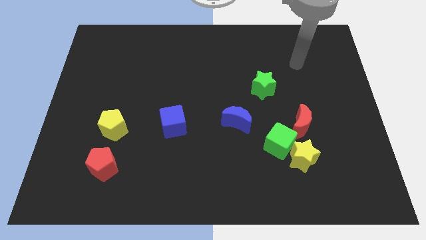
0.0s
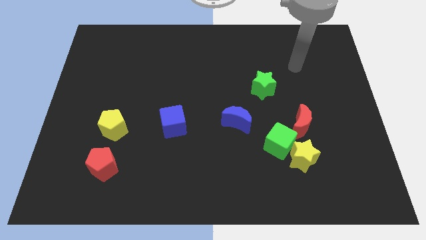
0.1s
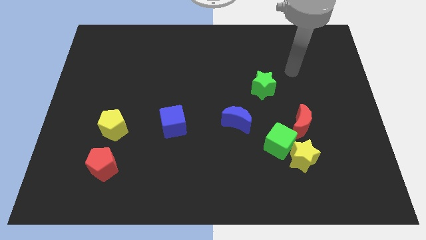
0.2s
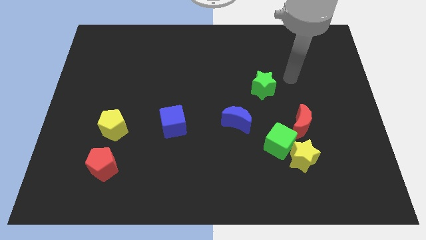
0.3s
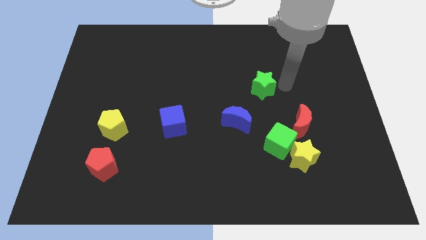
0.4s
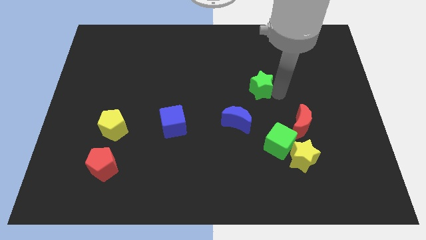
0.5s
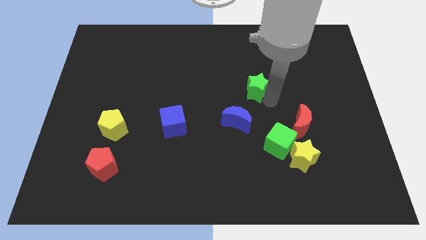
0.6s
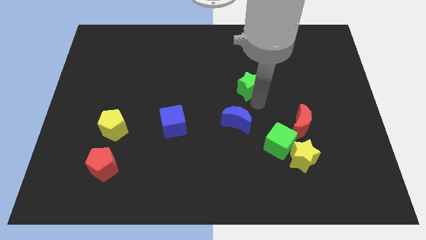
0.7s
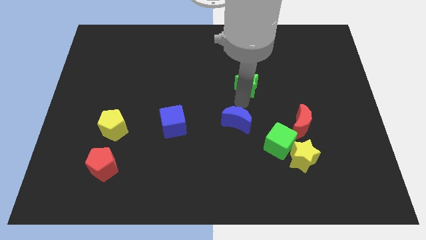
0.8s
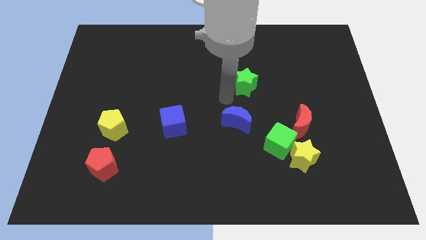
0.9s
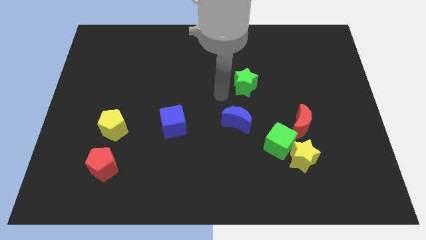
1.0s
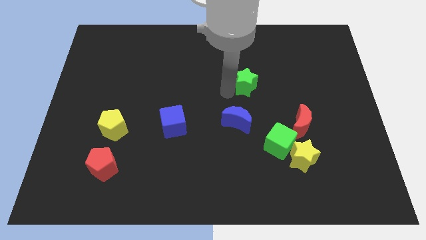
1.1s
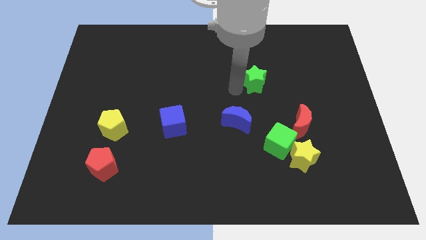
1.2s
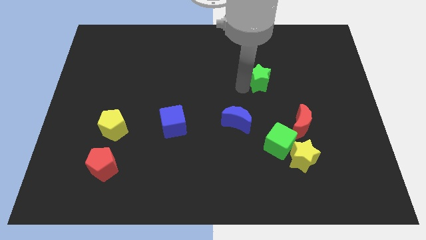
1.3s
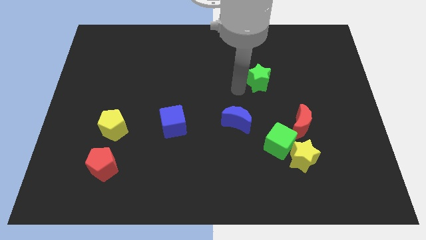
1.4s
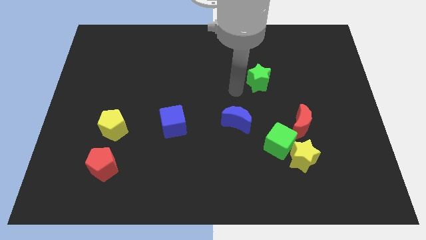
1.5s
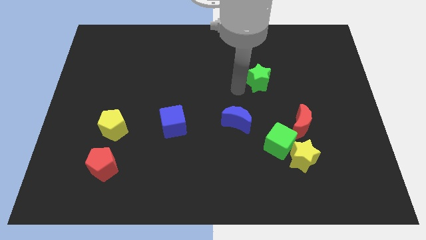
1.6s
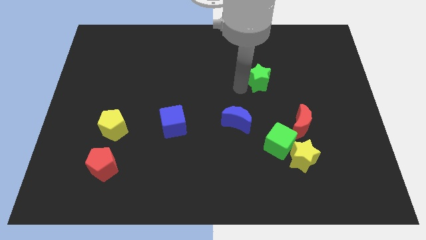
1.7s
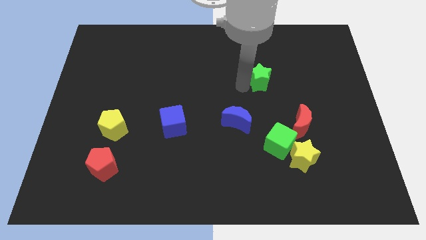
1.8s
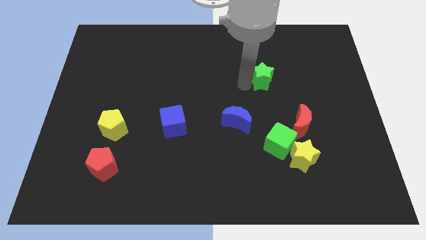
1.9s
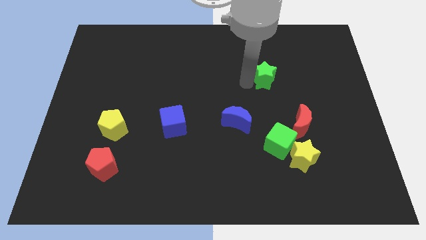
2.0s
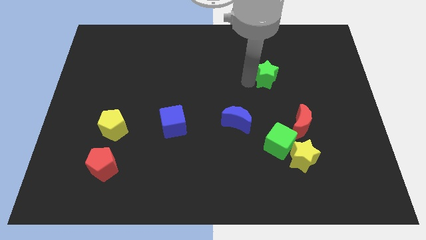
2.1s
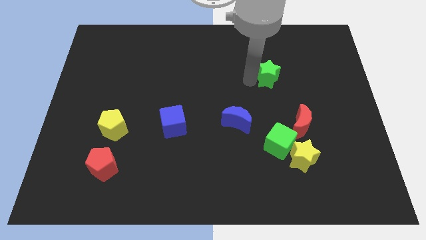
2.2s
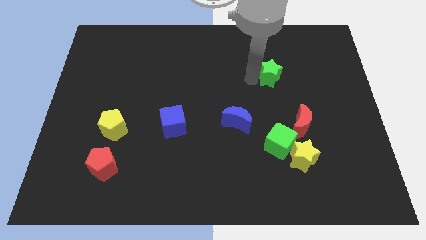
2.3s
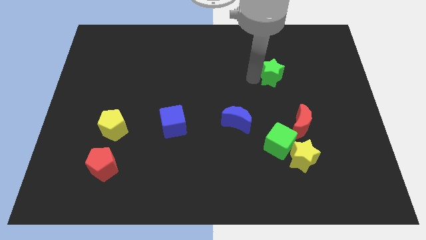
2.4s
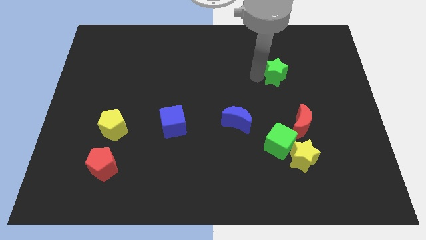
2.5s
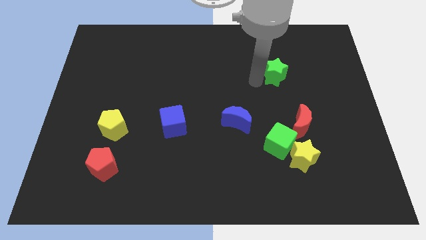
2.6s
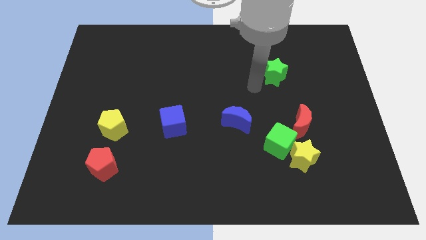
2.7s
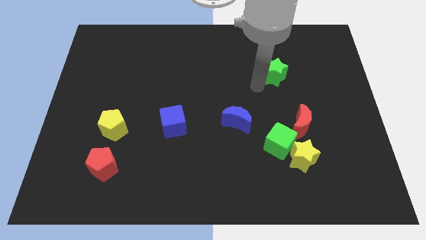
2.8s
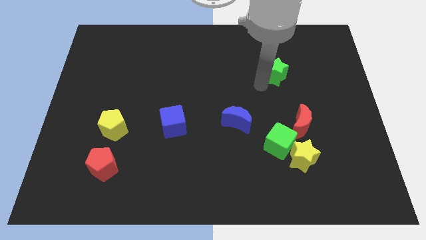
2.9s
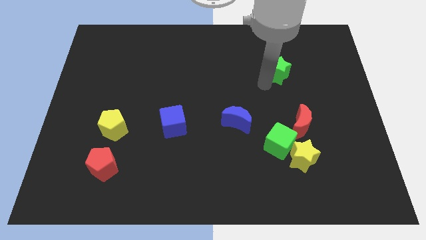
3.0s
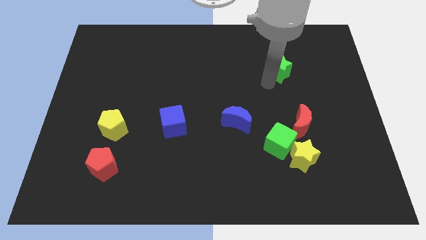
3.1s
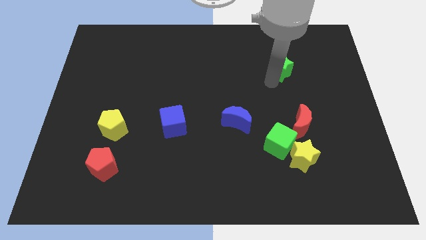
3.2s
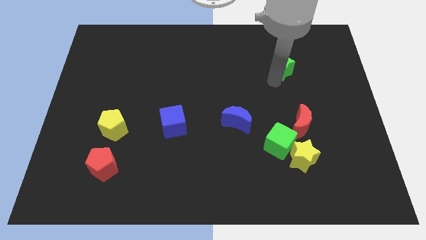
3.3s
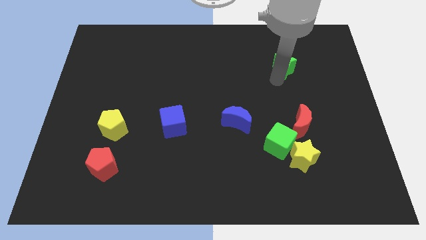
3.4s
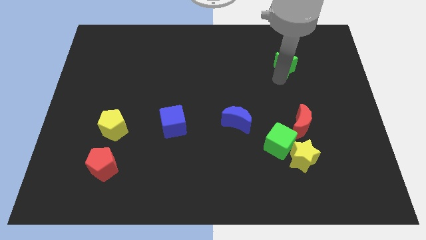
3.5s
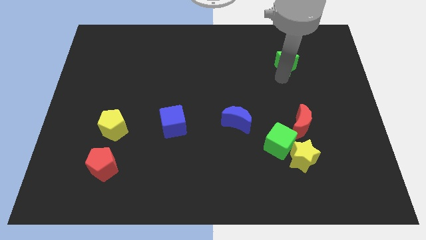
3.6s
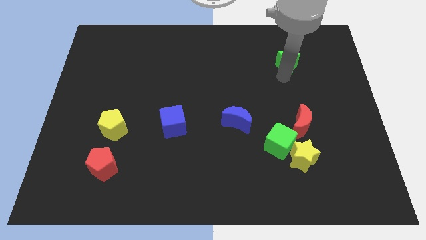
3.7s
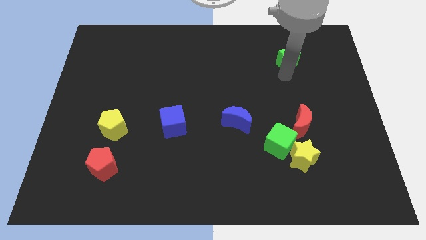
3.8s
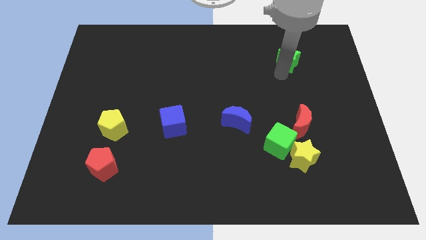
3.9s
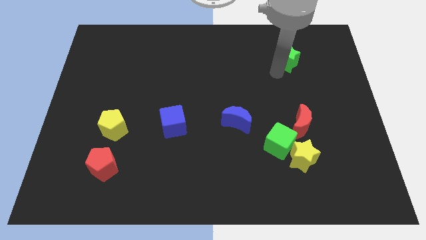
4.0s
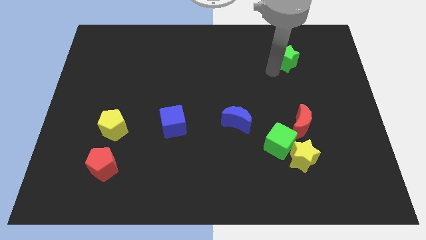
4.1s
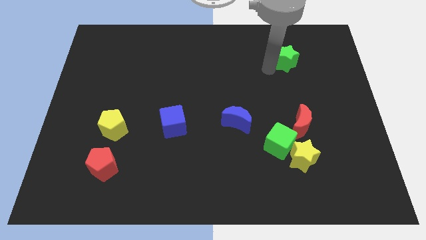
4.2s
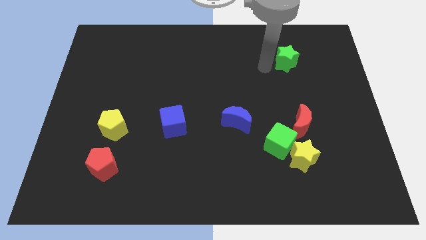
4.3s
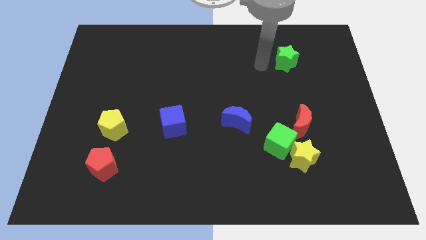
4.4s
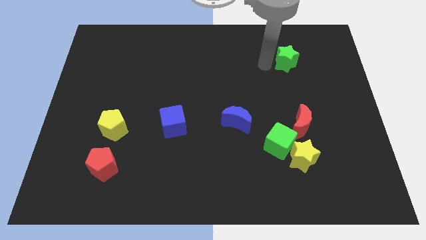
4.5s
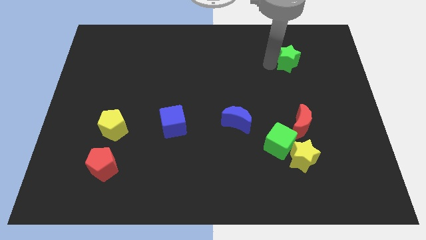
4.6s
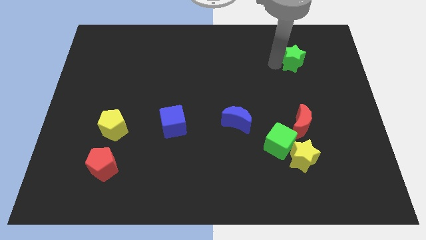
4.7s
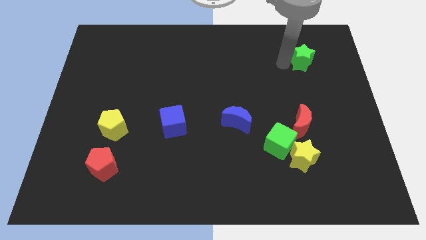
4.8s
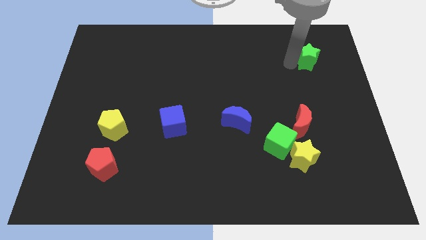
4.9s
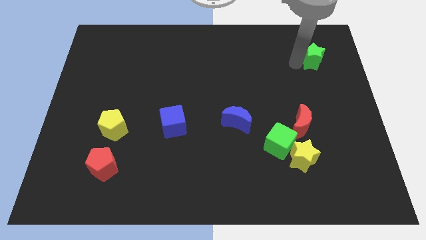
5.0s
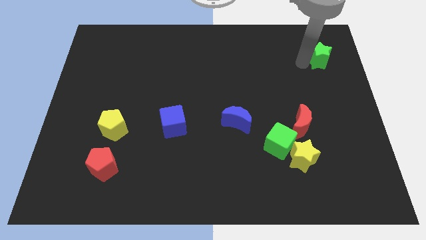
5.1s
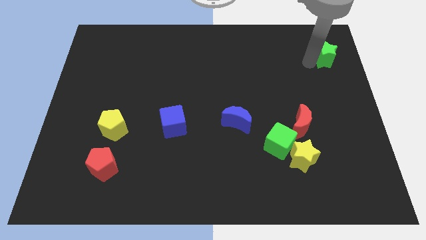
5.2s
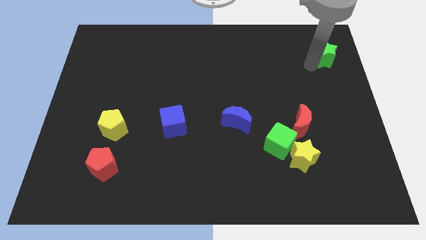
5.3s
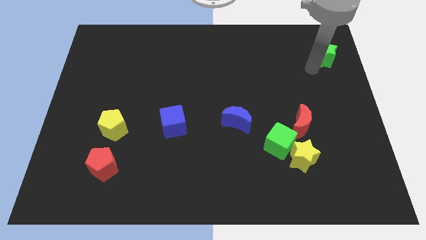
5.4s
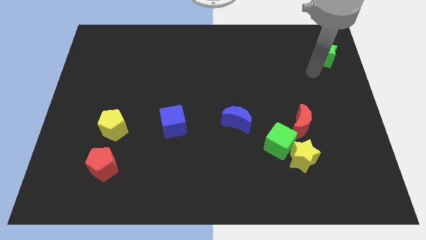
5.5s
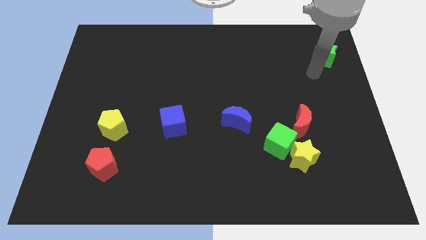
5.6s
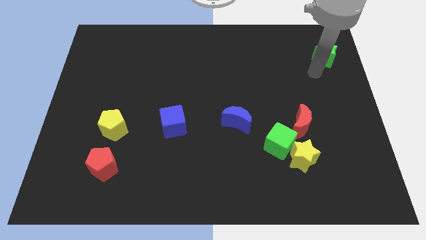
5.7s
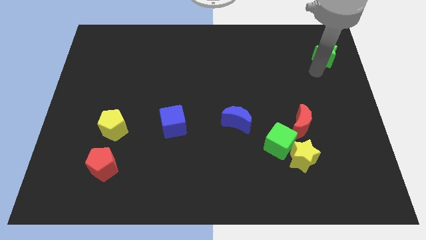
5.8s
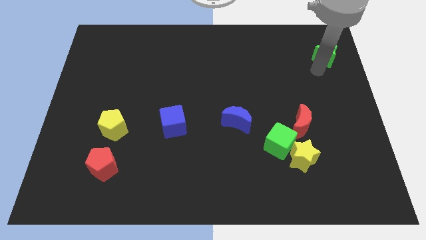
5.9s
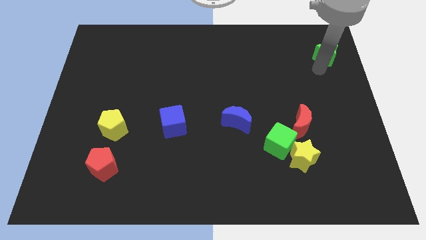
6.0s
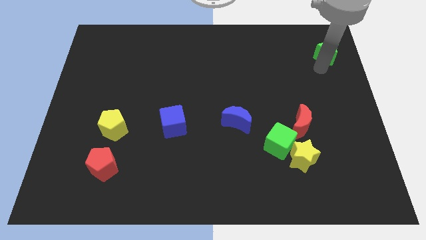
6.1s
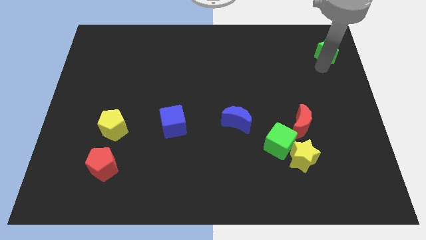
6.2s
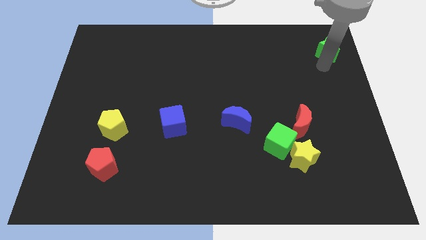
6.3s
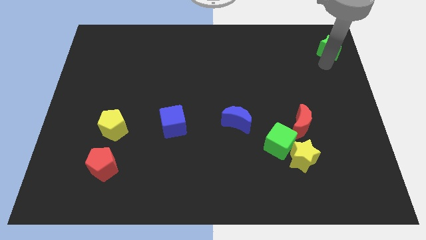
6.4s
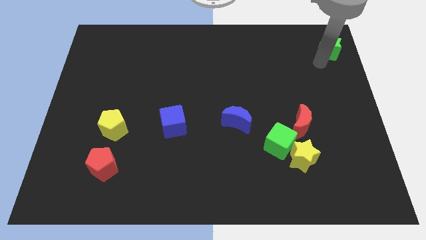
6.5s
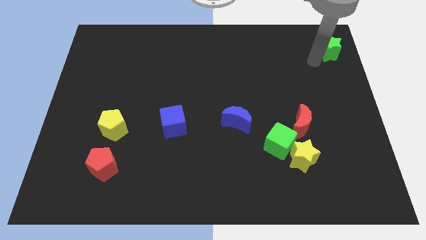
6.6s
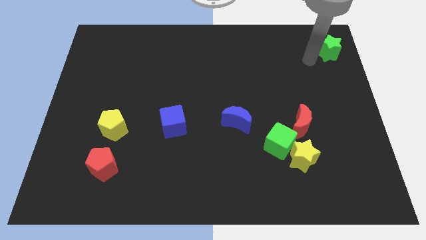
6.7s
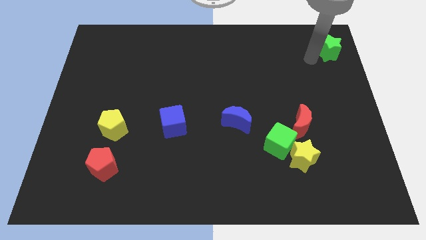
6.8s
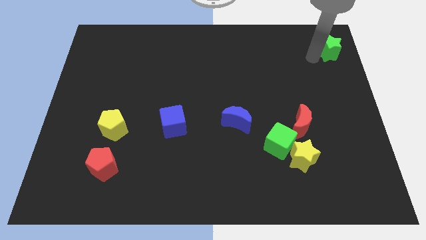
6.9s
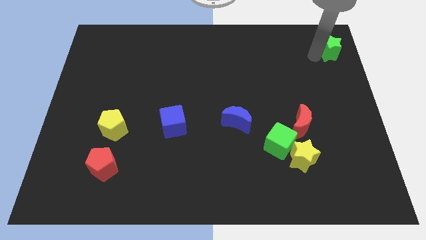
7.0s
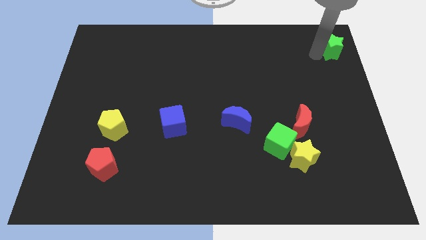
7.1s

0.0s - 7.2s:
put the green star to the upper right corner
